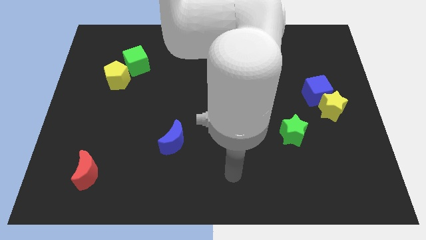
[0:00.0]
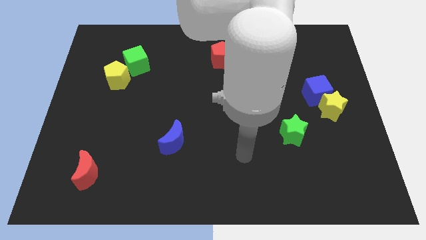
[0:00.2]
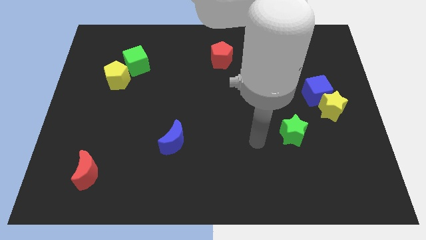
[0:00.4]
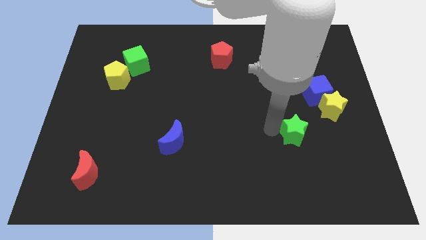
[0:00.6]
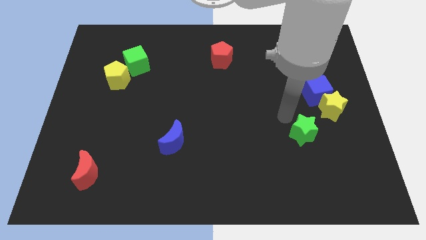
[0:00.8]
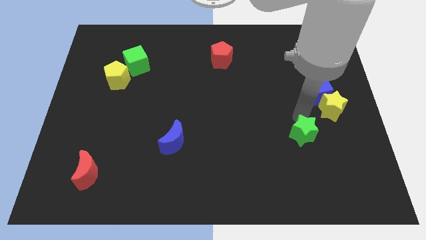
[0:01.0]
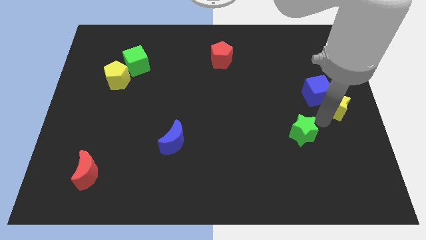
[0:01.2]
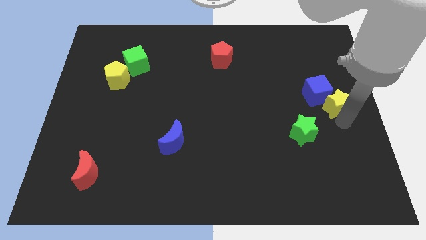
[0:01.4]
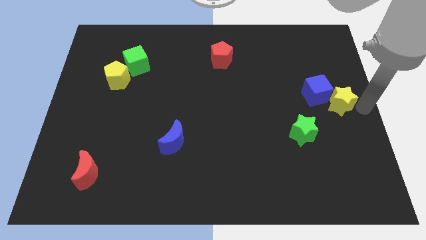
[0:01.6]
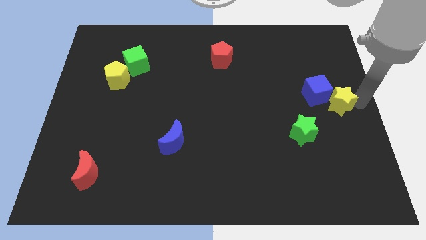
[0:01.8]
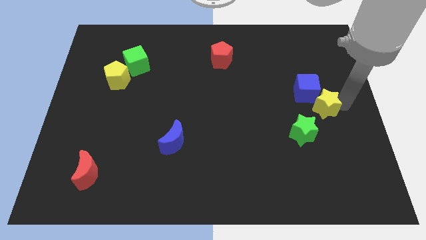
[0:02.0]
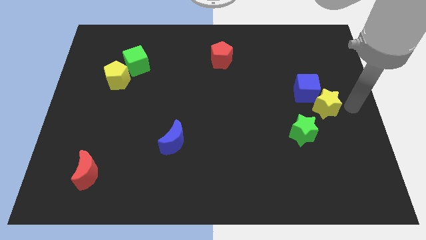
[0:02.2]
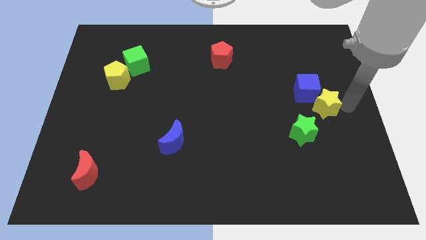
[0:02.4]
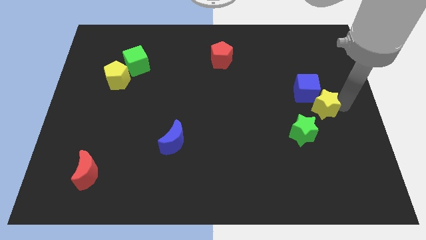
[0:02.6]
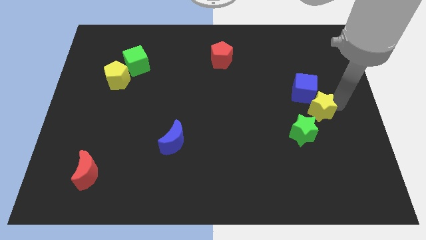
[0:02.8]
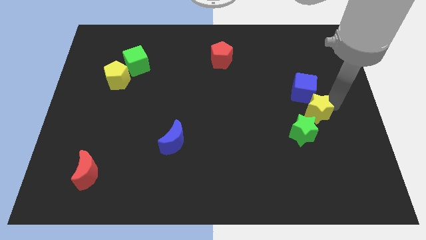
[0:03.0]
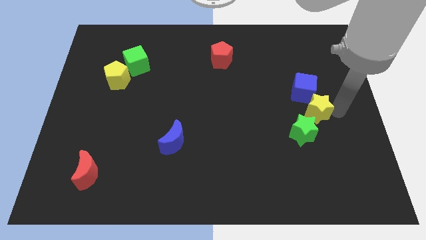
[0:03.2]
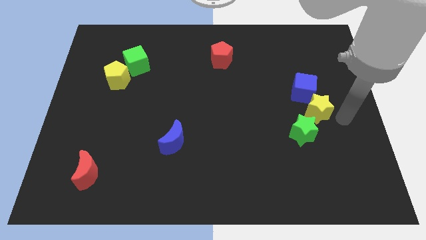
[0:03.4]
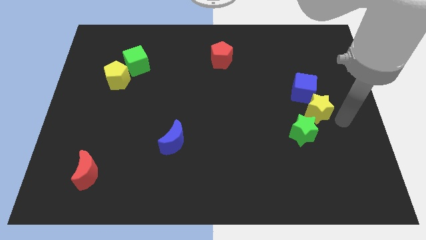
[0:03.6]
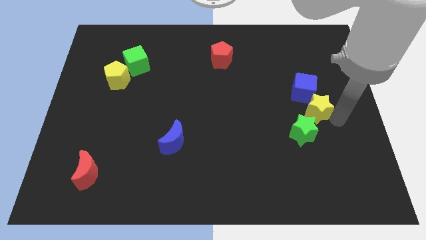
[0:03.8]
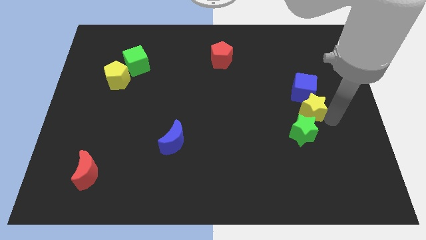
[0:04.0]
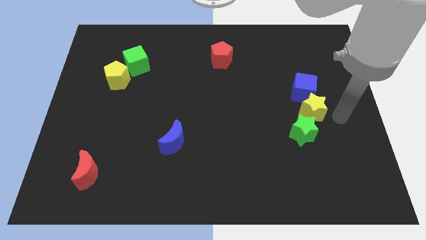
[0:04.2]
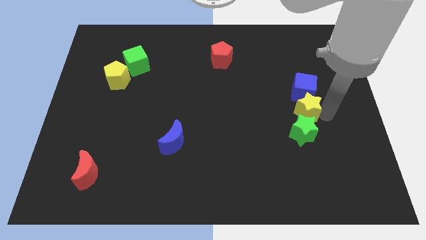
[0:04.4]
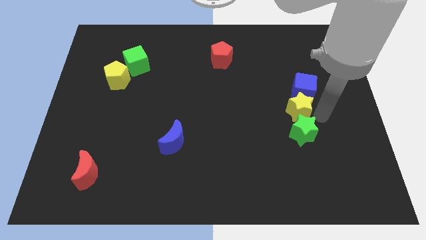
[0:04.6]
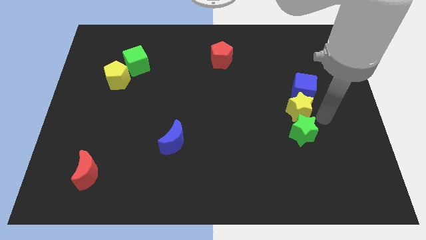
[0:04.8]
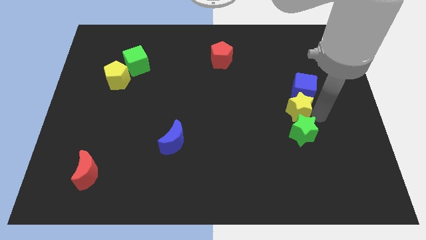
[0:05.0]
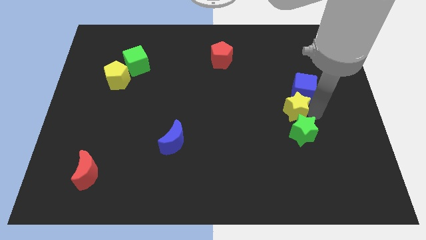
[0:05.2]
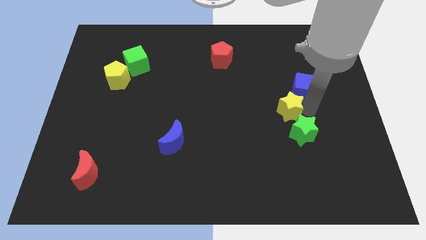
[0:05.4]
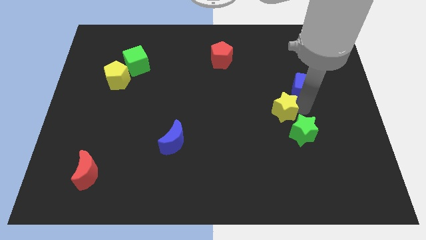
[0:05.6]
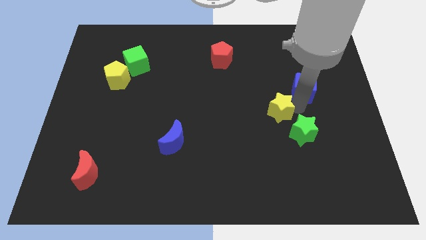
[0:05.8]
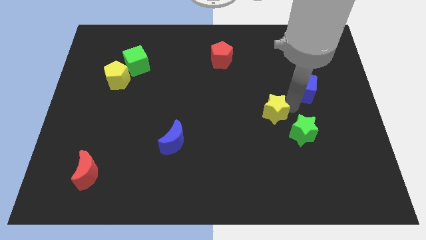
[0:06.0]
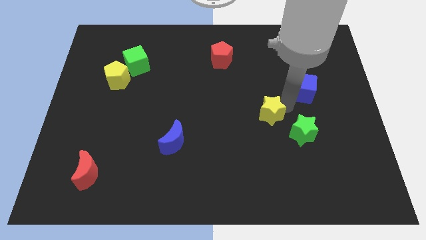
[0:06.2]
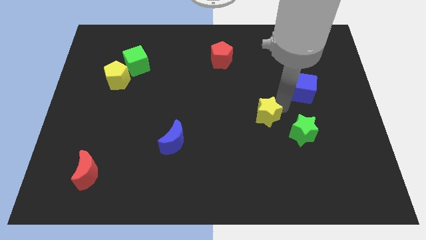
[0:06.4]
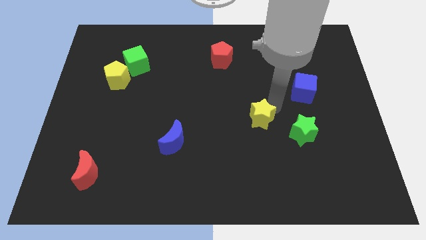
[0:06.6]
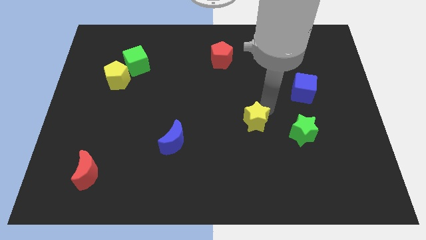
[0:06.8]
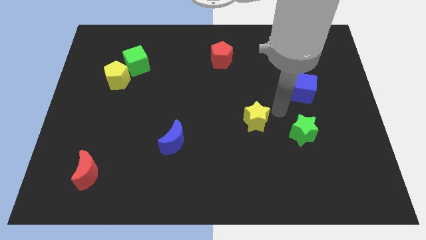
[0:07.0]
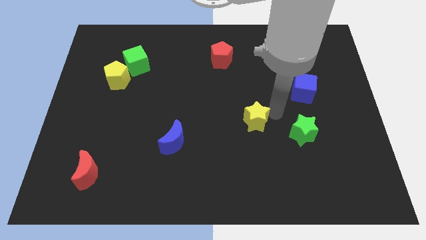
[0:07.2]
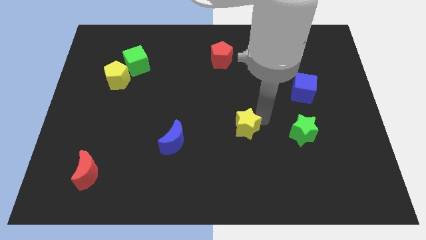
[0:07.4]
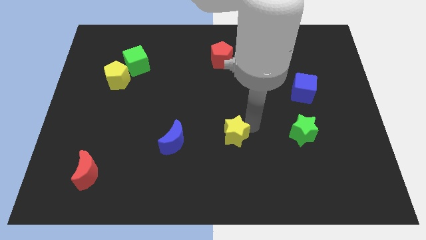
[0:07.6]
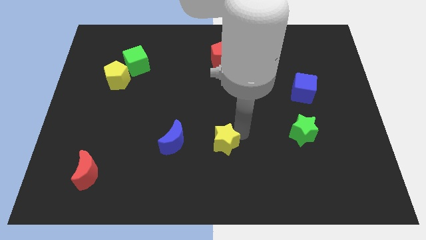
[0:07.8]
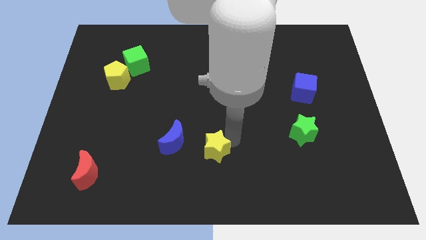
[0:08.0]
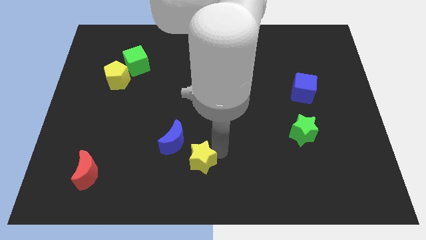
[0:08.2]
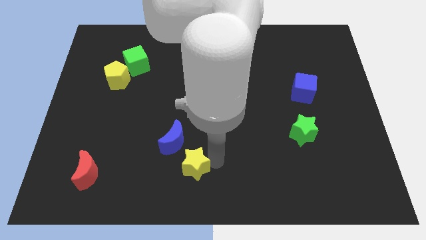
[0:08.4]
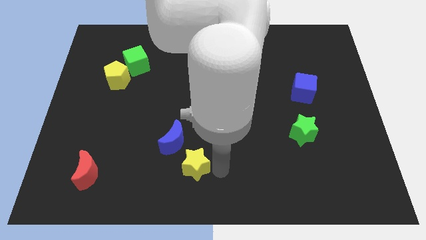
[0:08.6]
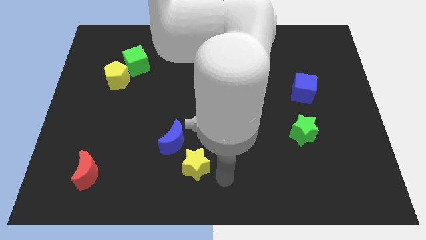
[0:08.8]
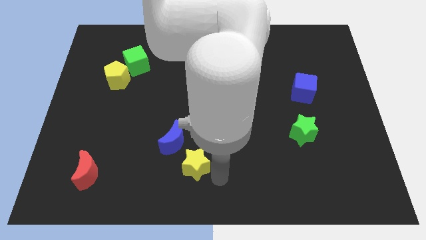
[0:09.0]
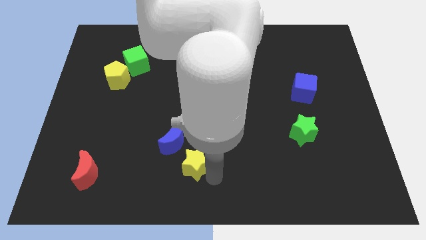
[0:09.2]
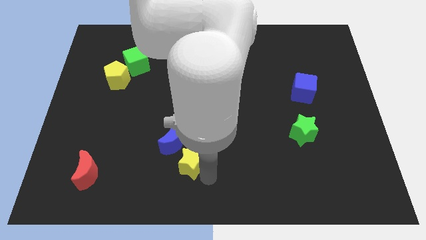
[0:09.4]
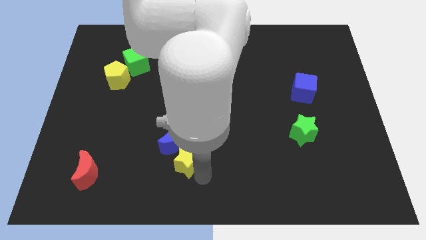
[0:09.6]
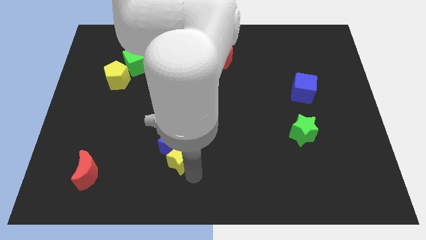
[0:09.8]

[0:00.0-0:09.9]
move the yellow star diagonally down and to the left of the blue moon

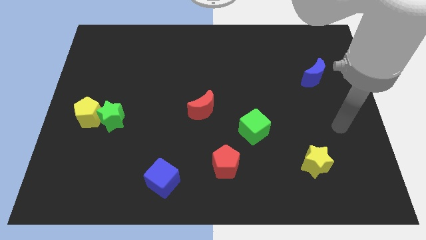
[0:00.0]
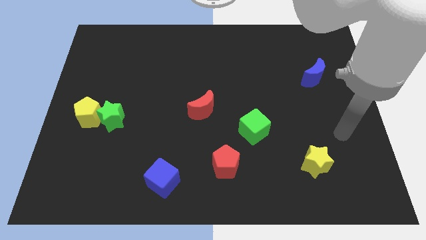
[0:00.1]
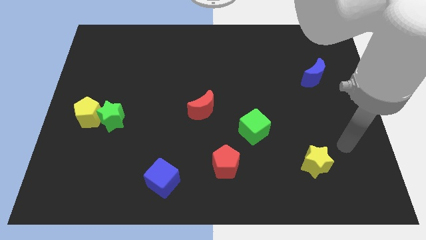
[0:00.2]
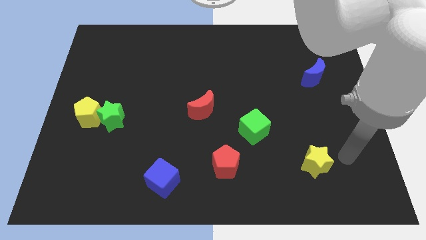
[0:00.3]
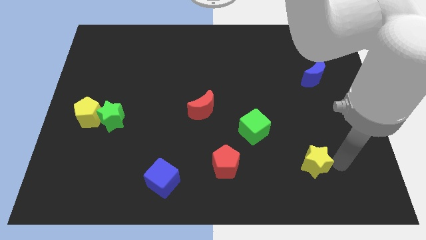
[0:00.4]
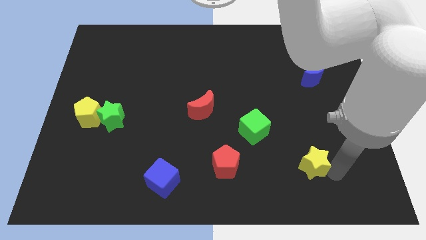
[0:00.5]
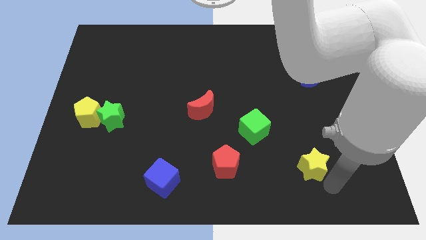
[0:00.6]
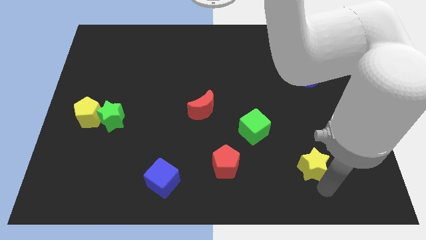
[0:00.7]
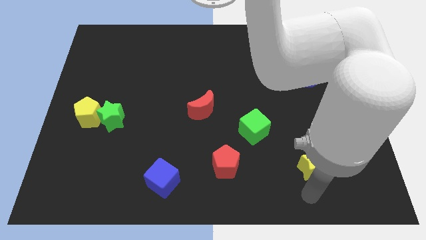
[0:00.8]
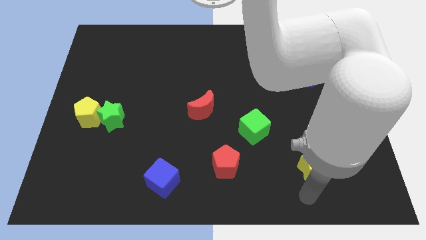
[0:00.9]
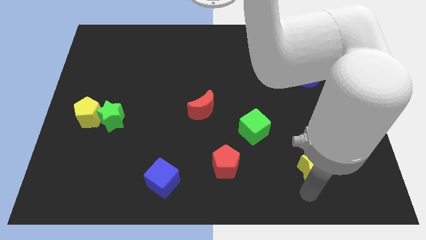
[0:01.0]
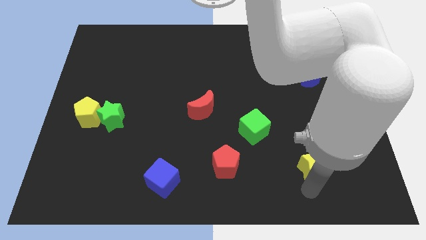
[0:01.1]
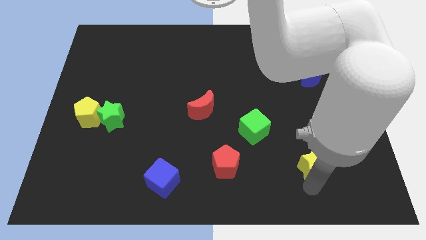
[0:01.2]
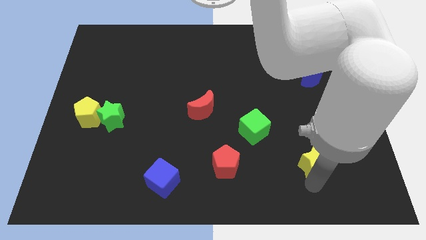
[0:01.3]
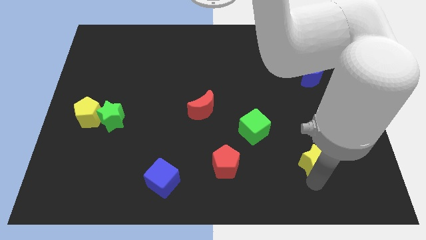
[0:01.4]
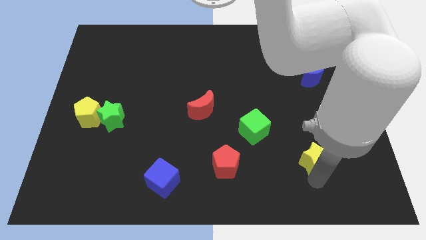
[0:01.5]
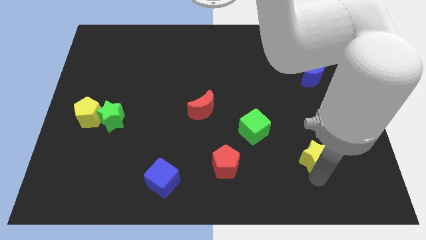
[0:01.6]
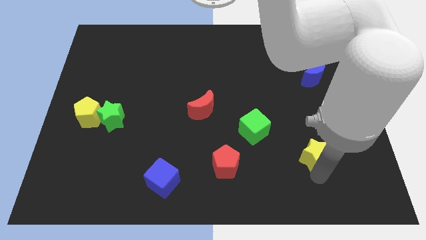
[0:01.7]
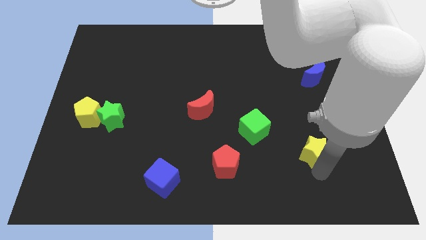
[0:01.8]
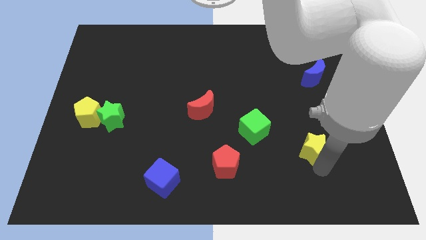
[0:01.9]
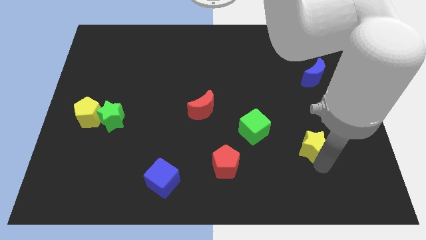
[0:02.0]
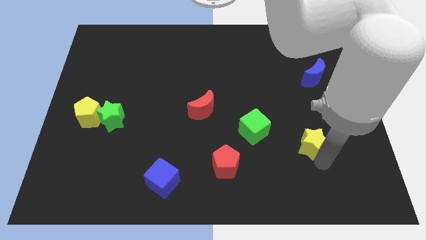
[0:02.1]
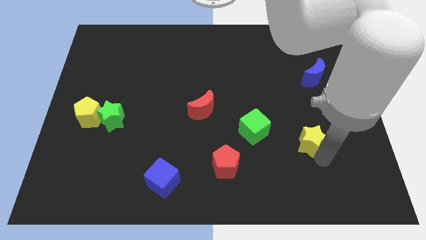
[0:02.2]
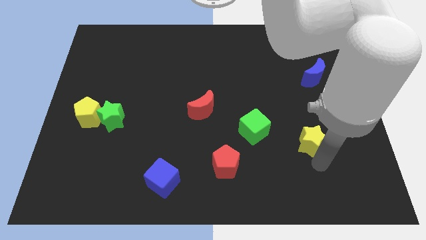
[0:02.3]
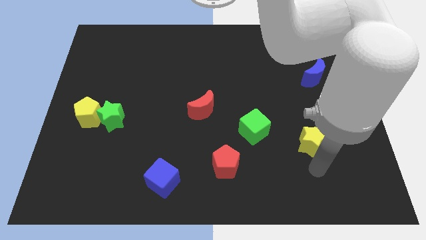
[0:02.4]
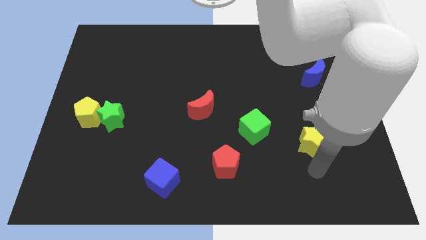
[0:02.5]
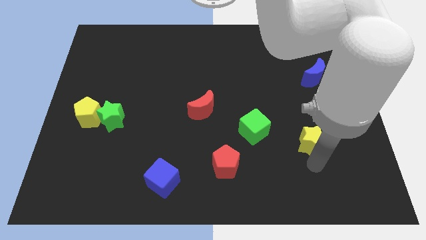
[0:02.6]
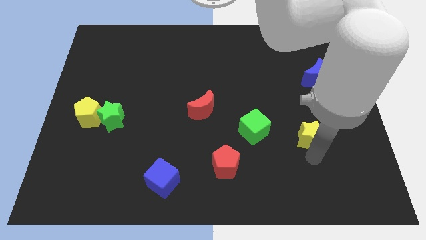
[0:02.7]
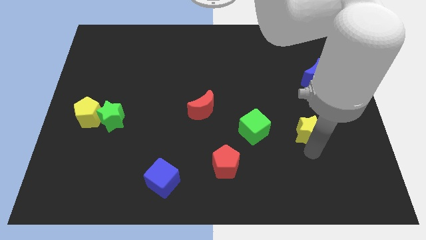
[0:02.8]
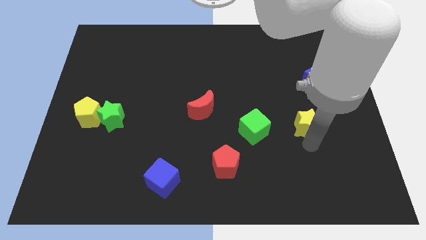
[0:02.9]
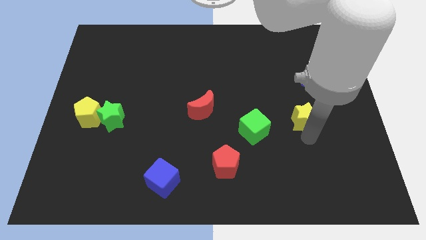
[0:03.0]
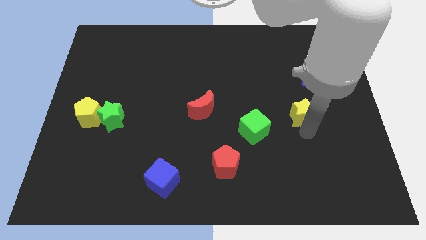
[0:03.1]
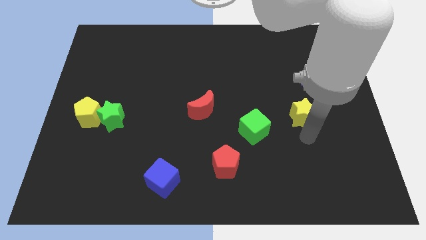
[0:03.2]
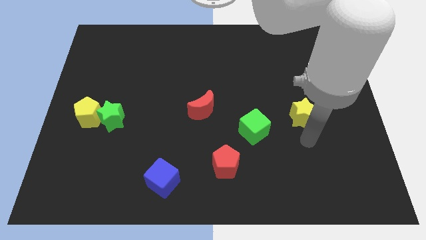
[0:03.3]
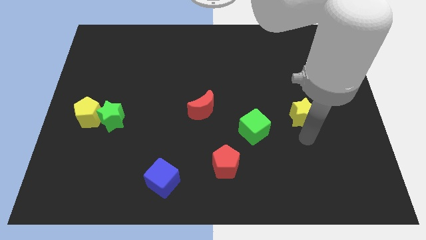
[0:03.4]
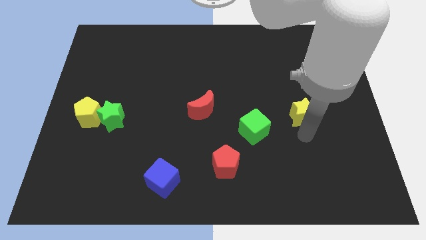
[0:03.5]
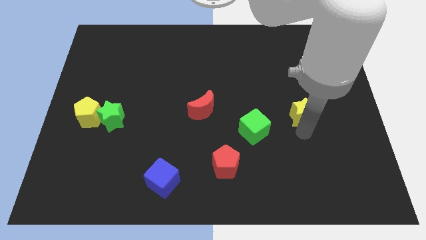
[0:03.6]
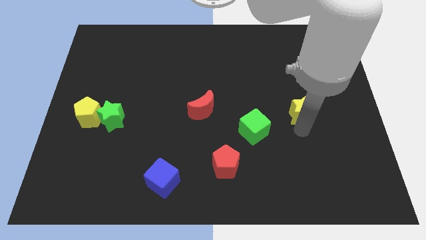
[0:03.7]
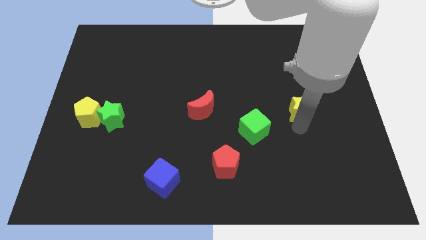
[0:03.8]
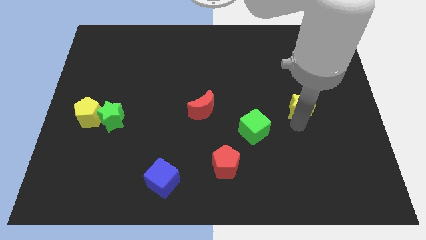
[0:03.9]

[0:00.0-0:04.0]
slide the yellow star diagonally down and to the left of the blue moon
